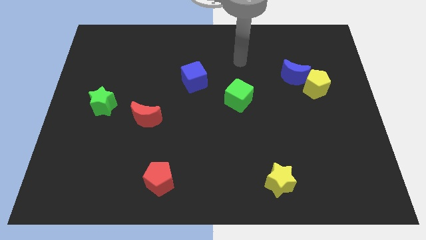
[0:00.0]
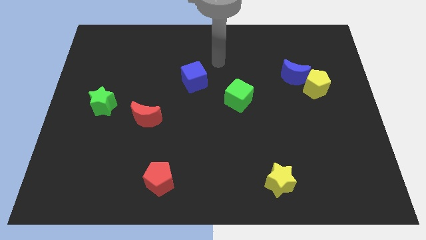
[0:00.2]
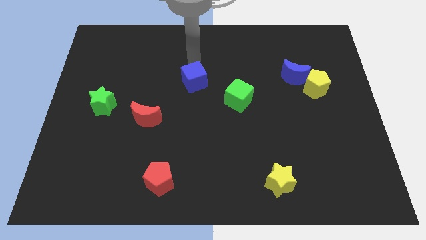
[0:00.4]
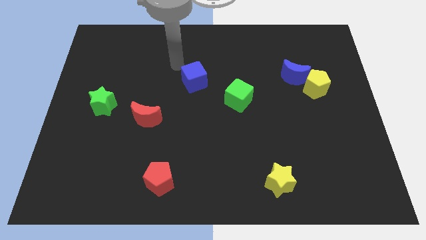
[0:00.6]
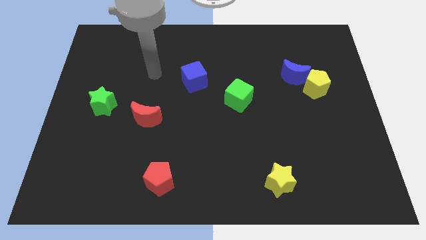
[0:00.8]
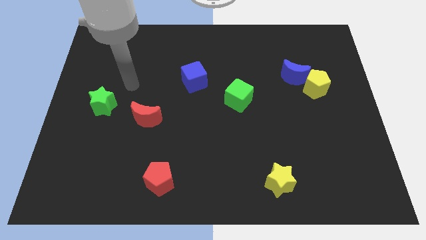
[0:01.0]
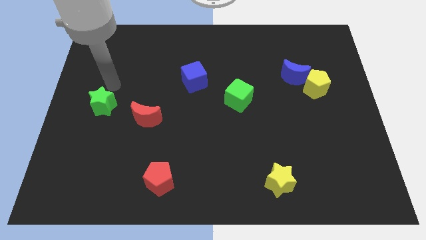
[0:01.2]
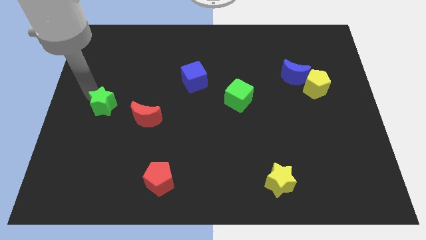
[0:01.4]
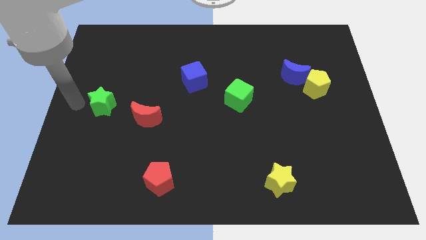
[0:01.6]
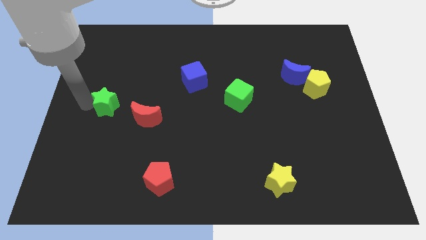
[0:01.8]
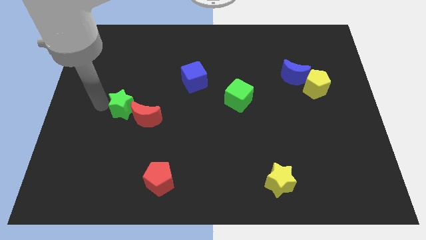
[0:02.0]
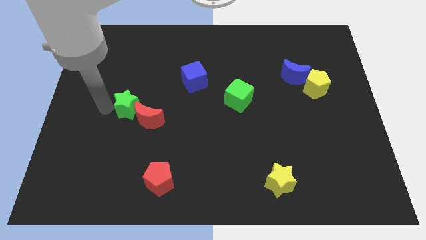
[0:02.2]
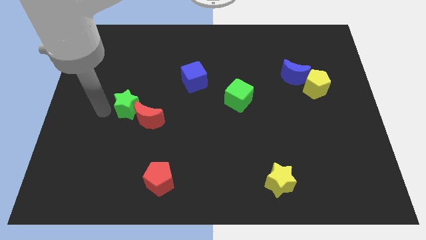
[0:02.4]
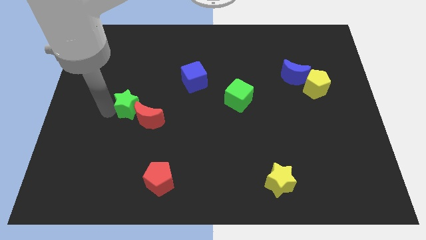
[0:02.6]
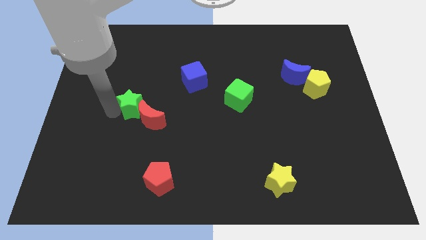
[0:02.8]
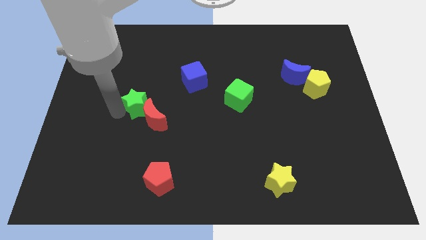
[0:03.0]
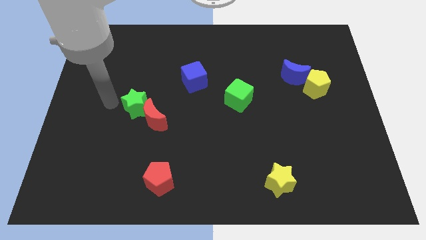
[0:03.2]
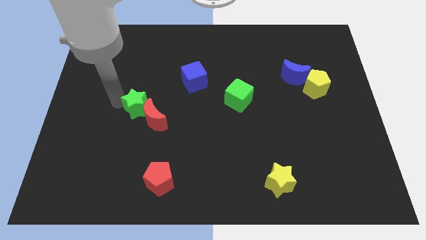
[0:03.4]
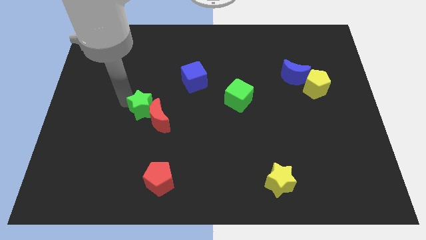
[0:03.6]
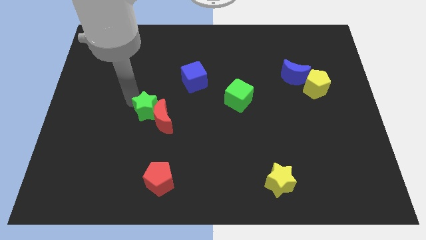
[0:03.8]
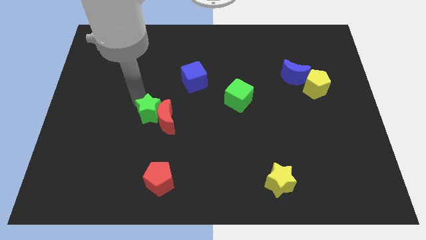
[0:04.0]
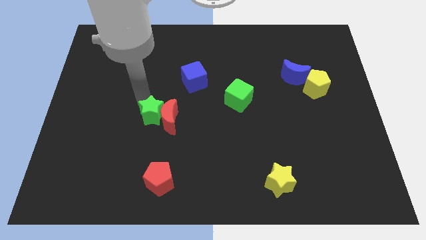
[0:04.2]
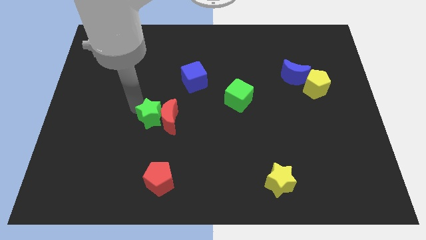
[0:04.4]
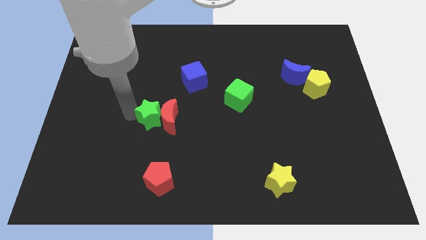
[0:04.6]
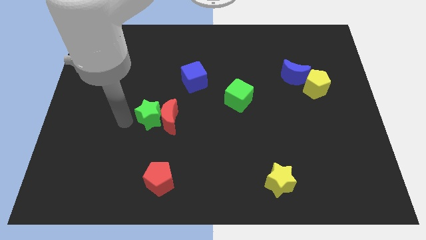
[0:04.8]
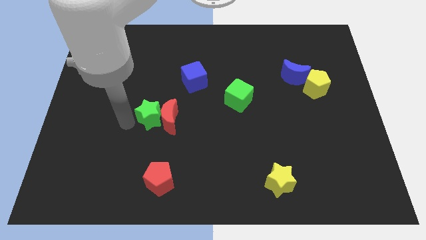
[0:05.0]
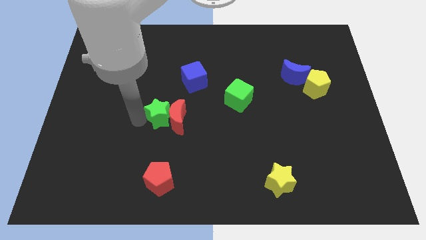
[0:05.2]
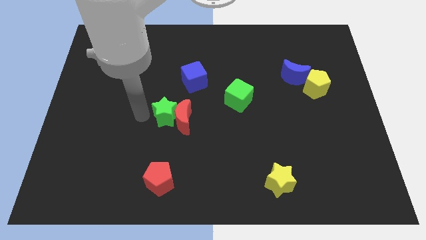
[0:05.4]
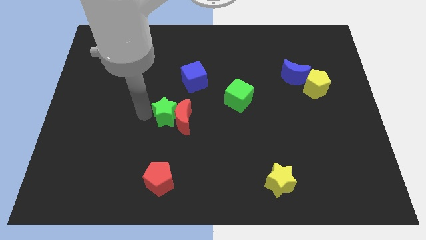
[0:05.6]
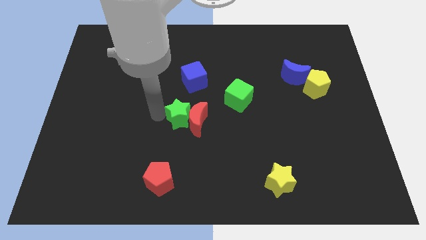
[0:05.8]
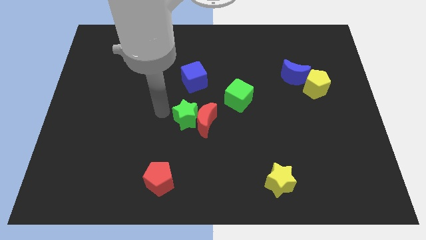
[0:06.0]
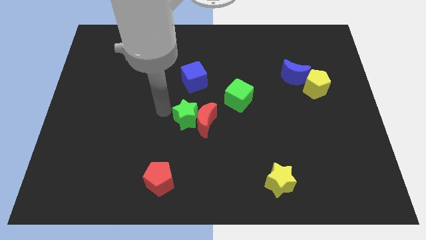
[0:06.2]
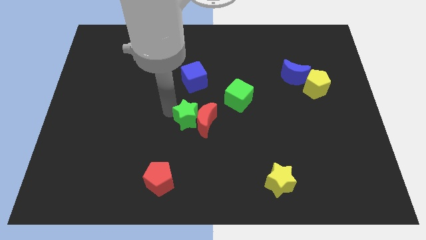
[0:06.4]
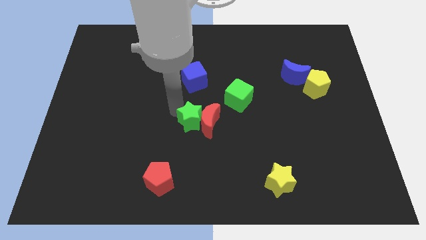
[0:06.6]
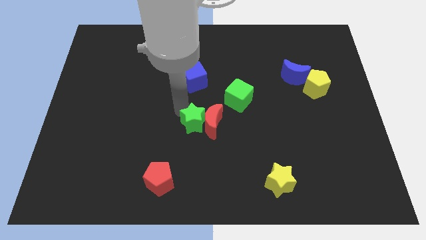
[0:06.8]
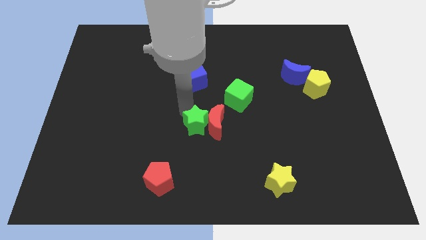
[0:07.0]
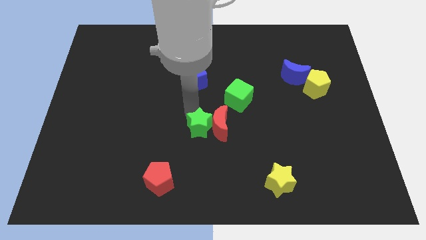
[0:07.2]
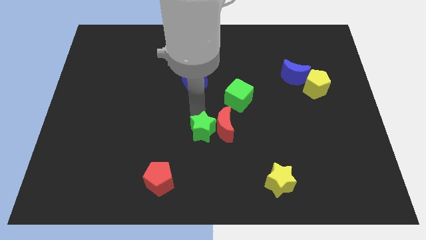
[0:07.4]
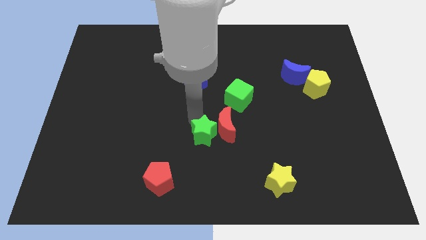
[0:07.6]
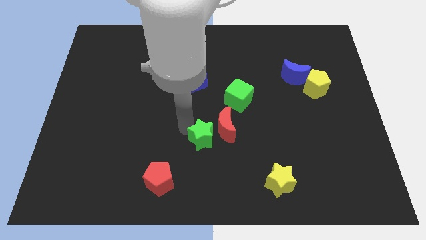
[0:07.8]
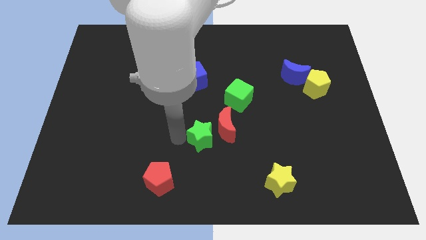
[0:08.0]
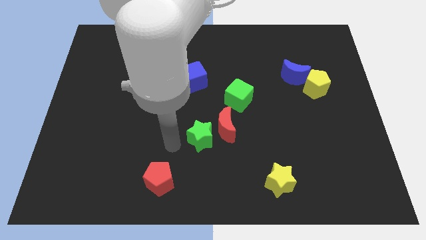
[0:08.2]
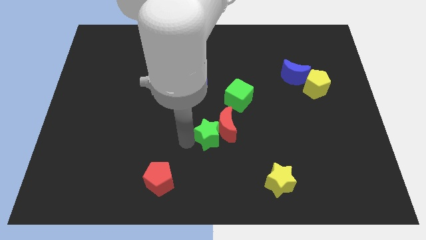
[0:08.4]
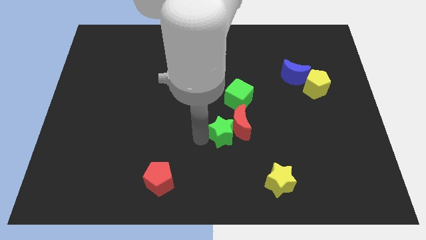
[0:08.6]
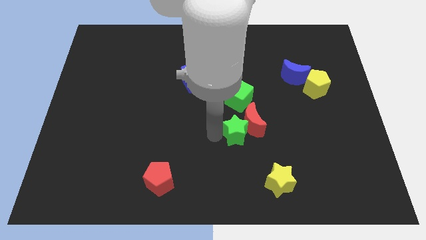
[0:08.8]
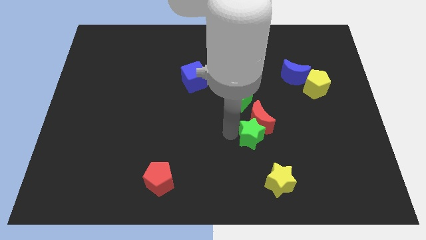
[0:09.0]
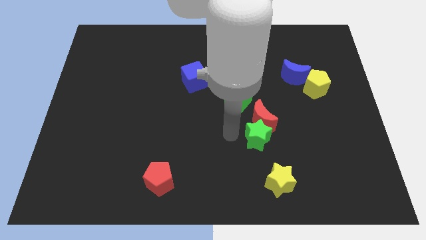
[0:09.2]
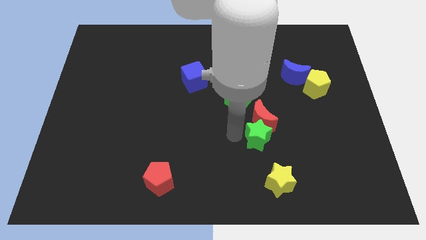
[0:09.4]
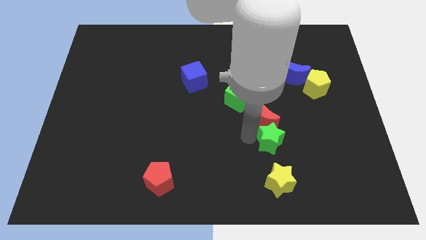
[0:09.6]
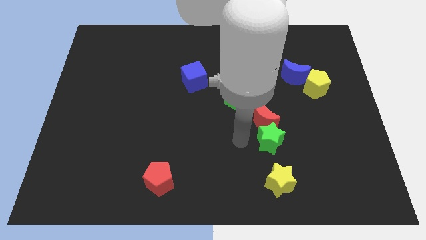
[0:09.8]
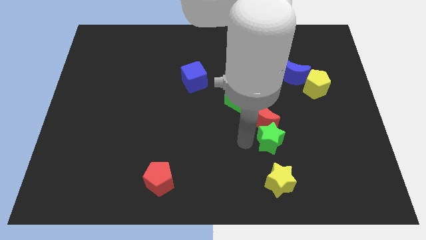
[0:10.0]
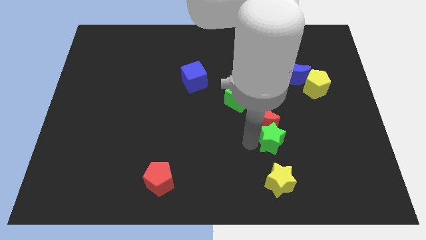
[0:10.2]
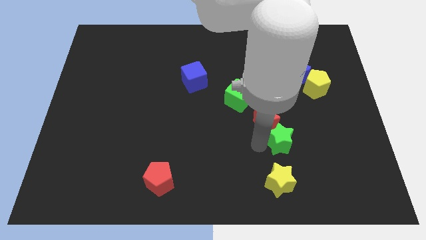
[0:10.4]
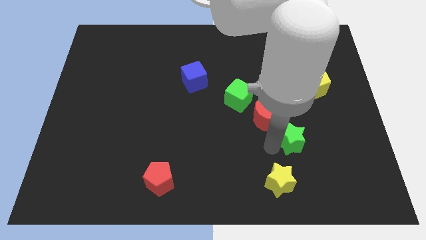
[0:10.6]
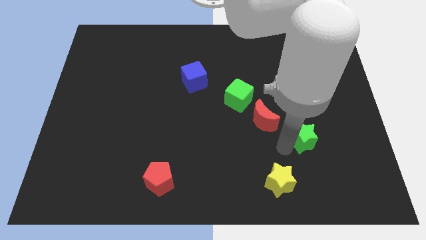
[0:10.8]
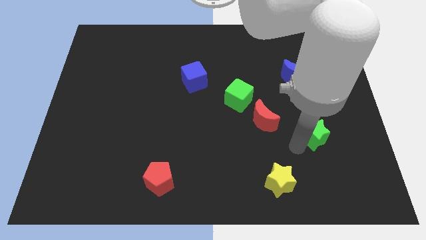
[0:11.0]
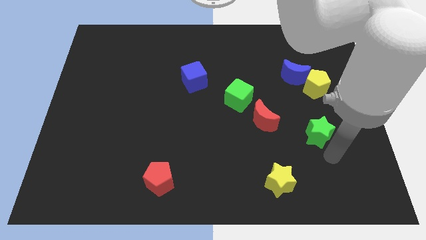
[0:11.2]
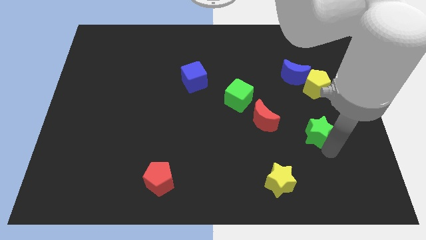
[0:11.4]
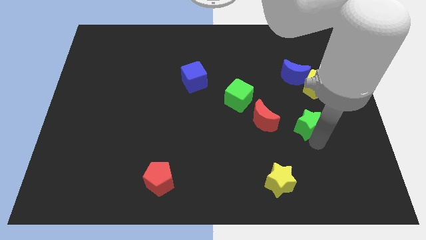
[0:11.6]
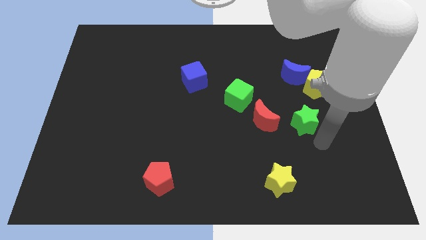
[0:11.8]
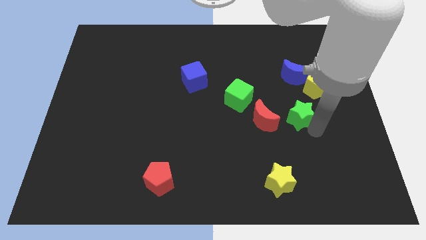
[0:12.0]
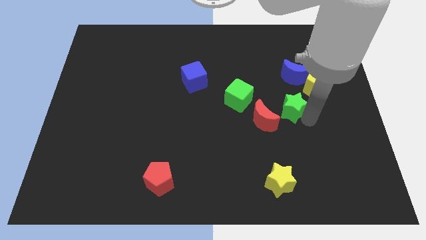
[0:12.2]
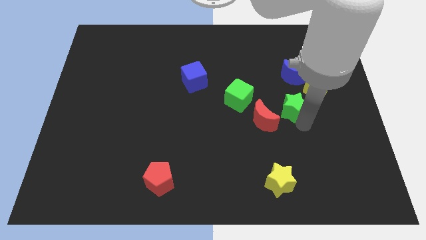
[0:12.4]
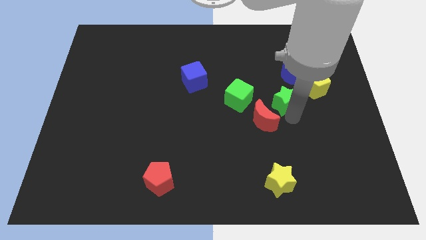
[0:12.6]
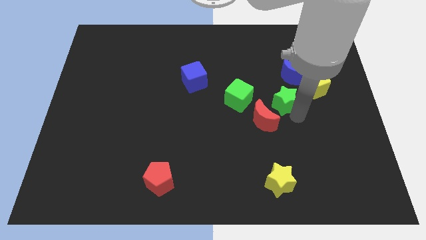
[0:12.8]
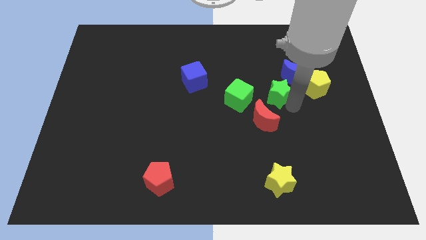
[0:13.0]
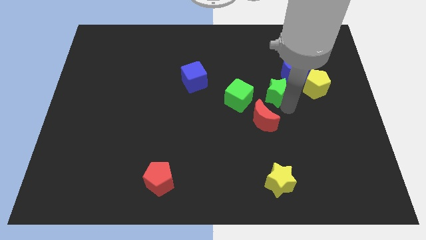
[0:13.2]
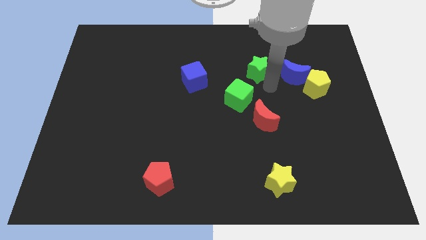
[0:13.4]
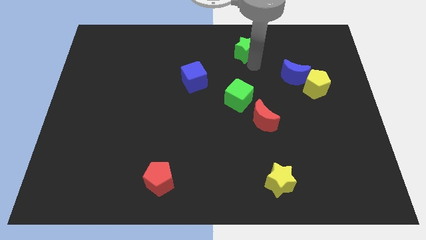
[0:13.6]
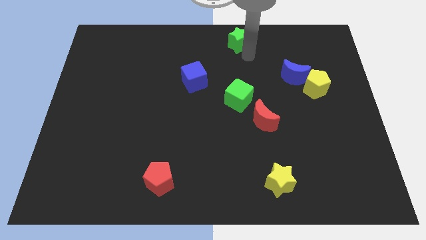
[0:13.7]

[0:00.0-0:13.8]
slide the green star to the top side

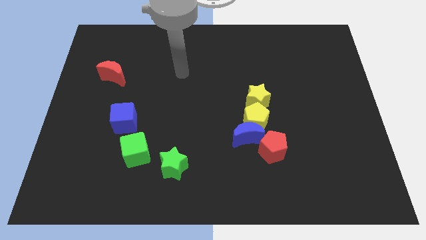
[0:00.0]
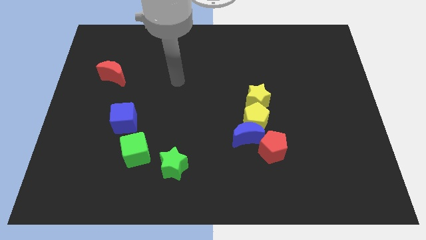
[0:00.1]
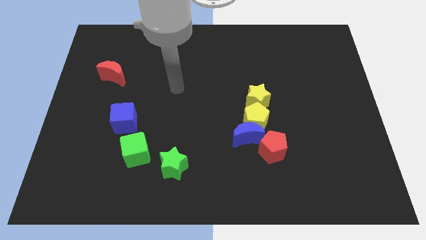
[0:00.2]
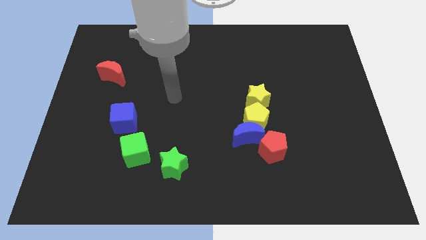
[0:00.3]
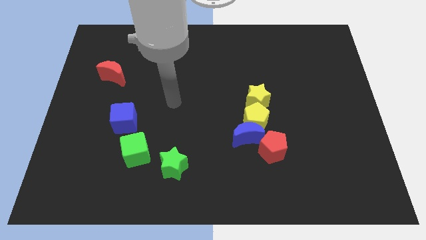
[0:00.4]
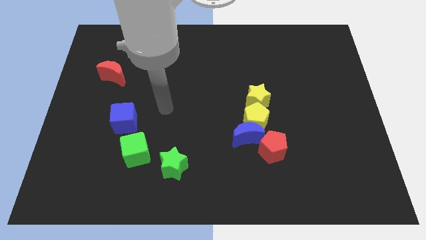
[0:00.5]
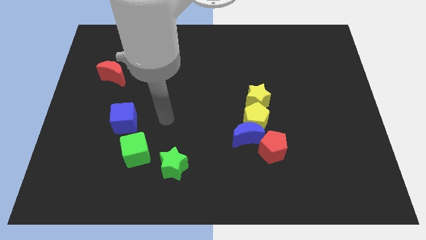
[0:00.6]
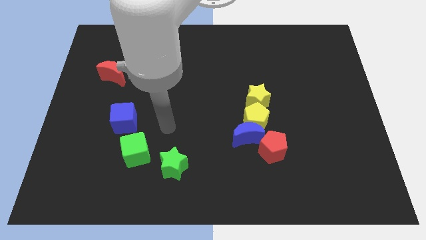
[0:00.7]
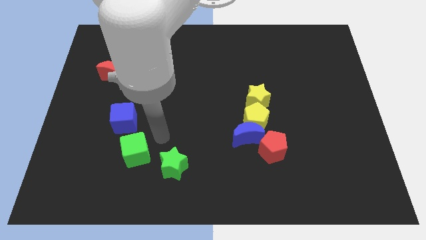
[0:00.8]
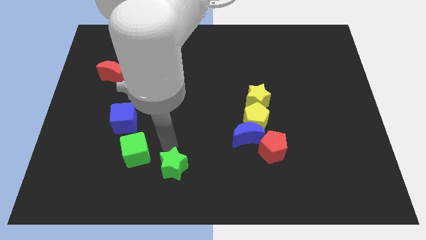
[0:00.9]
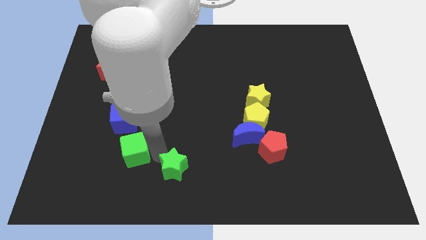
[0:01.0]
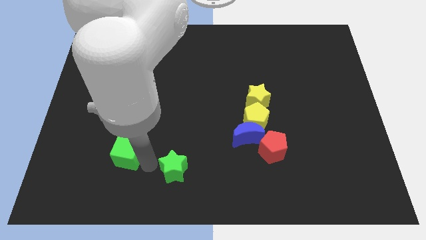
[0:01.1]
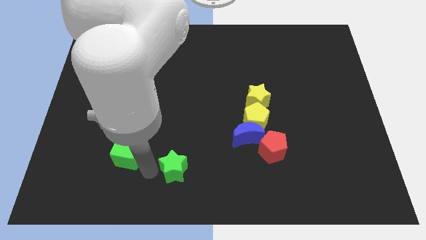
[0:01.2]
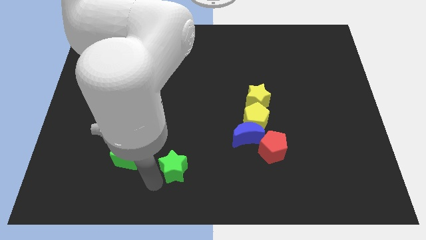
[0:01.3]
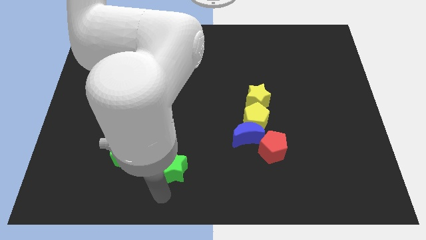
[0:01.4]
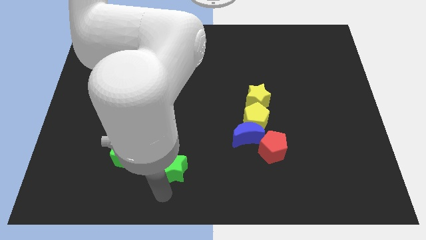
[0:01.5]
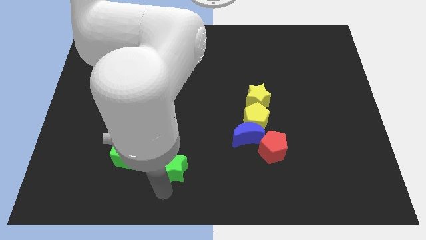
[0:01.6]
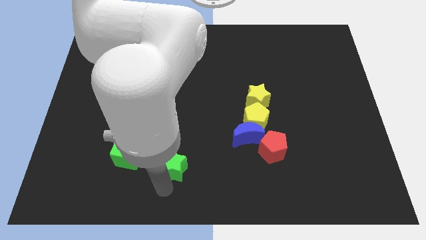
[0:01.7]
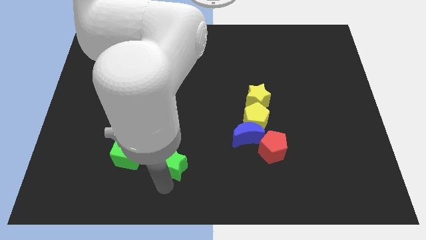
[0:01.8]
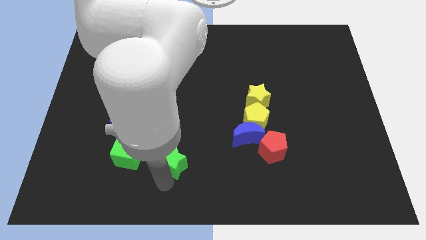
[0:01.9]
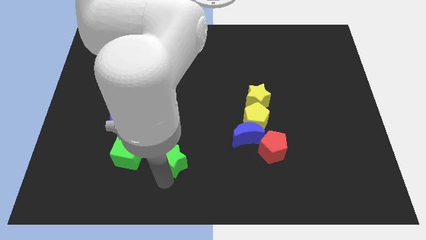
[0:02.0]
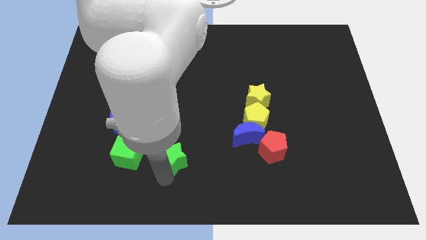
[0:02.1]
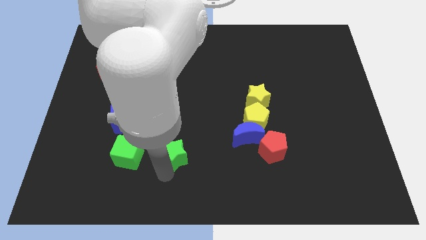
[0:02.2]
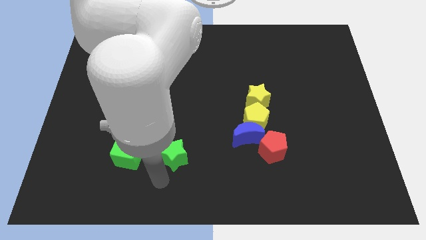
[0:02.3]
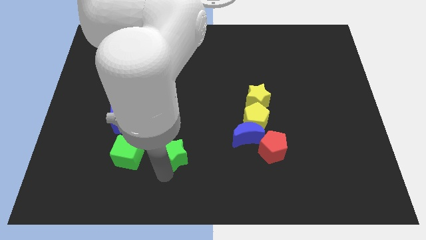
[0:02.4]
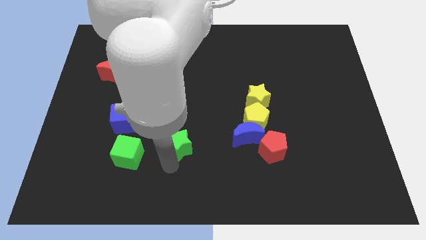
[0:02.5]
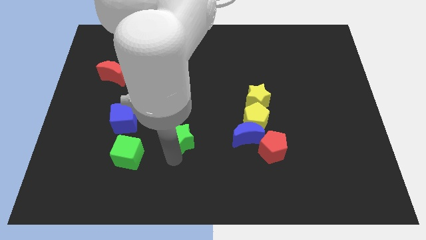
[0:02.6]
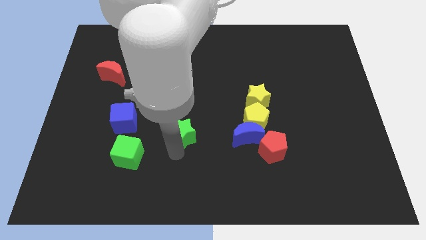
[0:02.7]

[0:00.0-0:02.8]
slide the green star to the middle of the board
